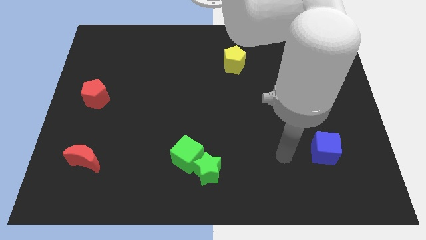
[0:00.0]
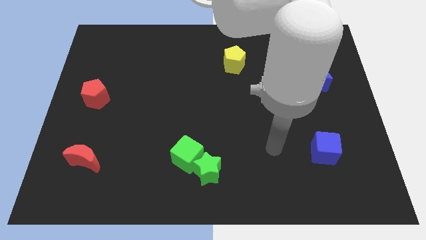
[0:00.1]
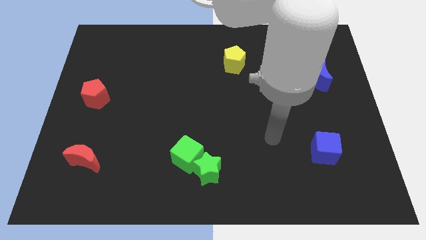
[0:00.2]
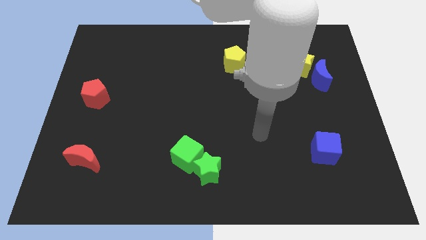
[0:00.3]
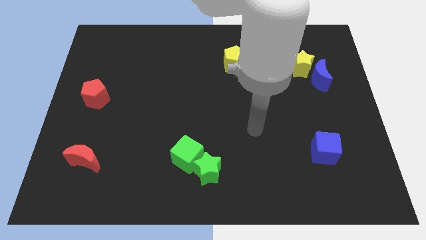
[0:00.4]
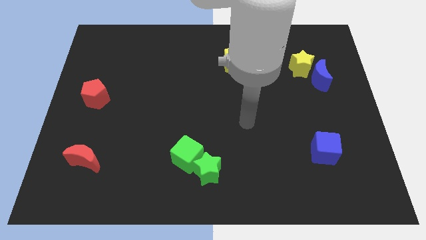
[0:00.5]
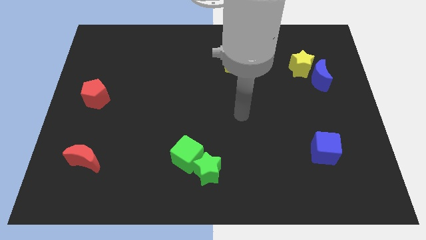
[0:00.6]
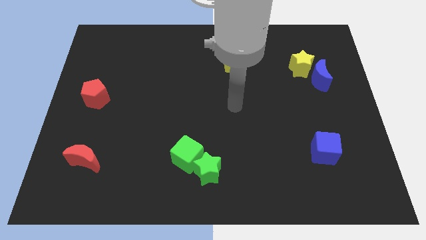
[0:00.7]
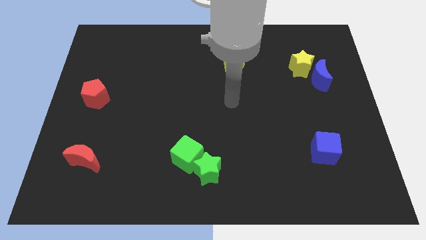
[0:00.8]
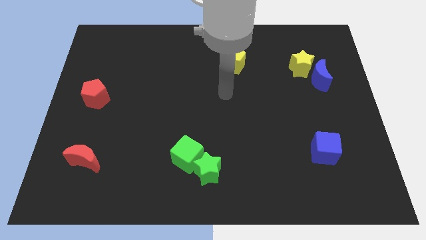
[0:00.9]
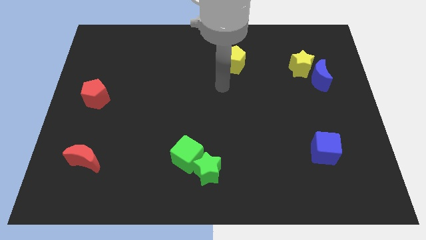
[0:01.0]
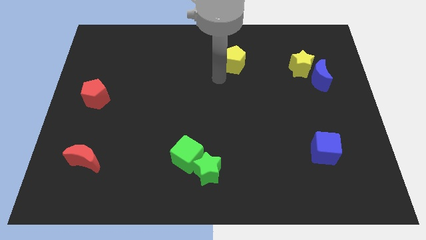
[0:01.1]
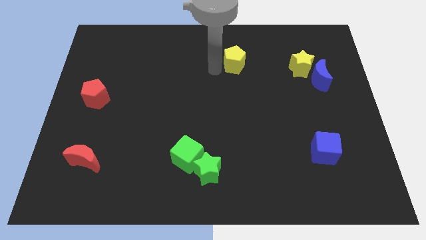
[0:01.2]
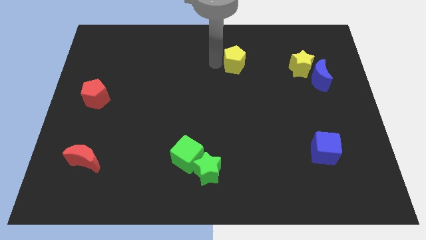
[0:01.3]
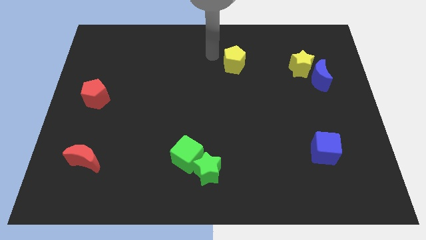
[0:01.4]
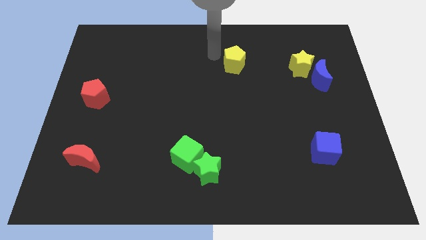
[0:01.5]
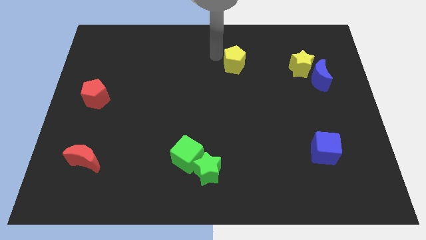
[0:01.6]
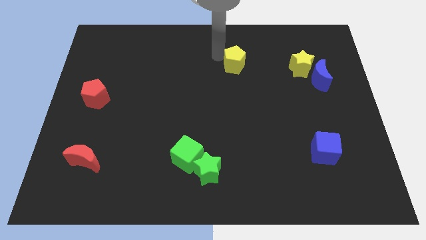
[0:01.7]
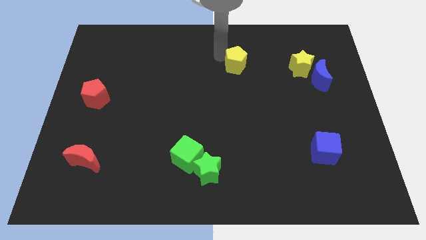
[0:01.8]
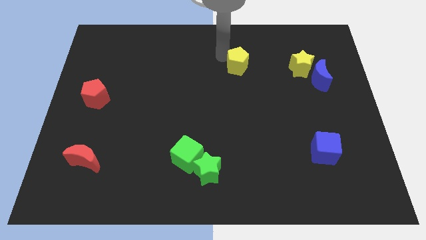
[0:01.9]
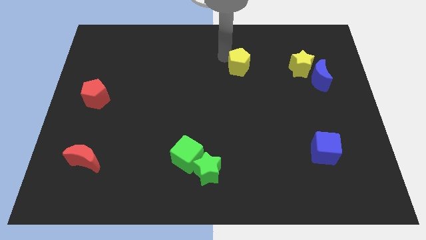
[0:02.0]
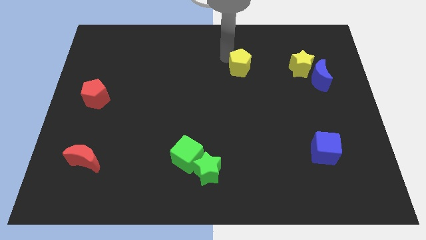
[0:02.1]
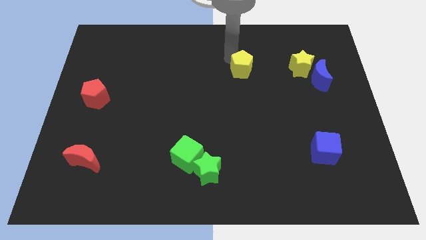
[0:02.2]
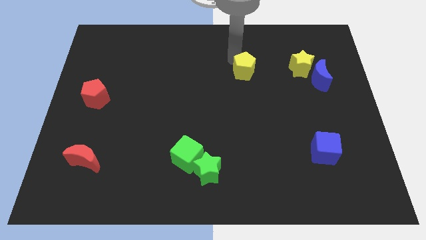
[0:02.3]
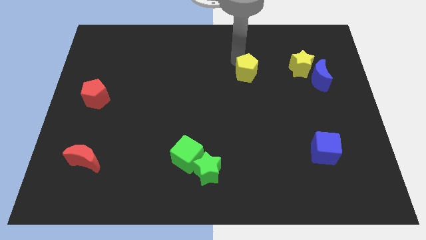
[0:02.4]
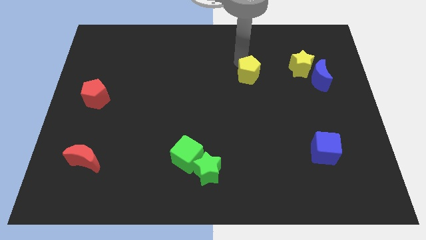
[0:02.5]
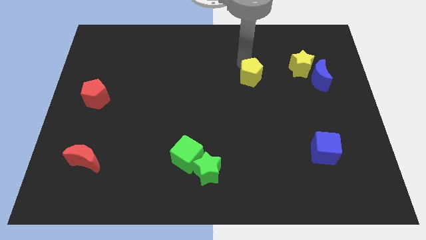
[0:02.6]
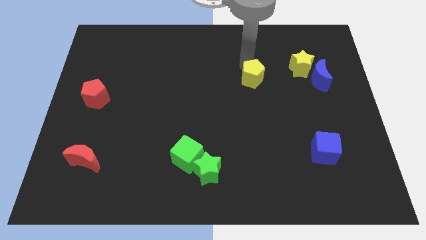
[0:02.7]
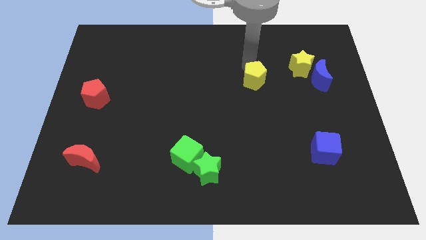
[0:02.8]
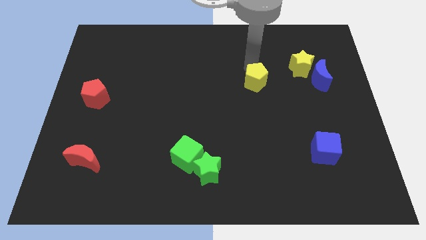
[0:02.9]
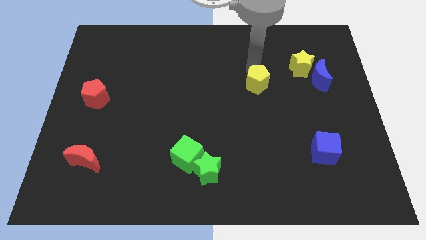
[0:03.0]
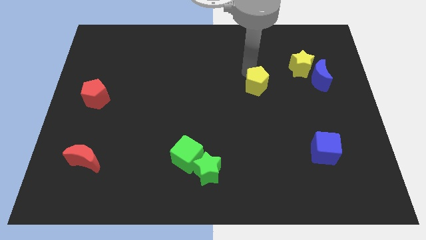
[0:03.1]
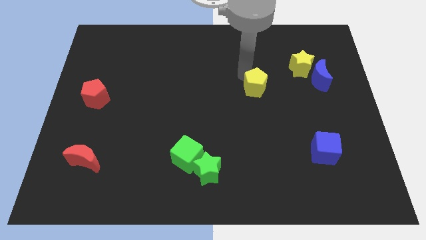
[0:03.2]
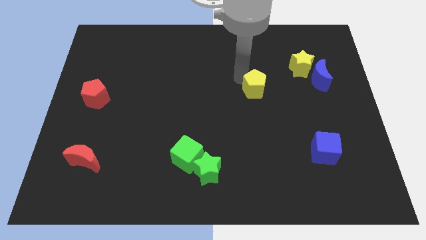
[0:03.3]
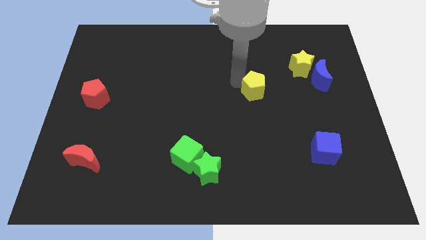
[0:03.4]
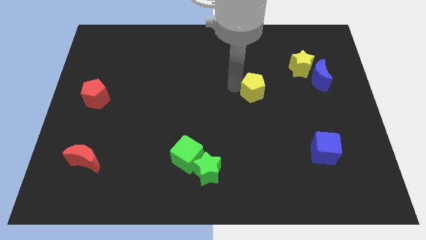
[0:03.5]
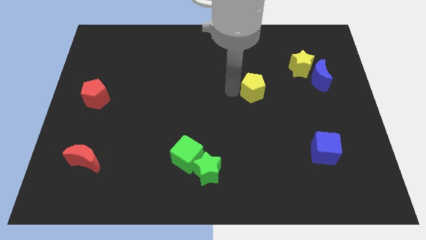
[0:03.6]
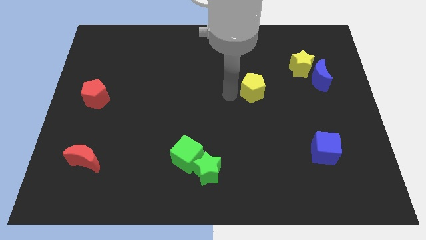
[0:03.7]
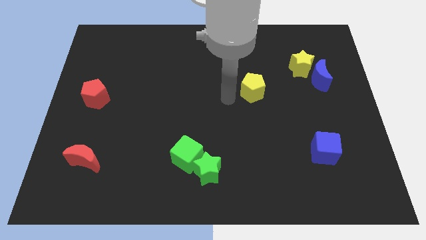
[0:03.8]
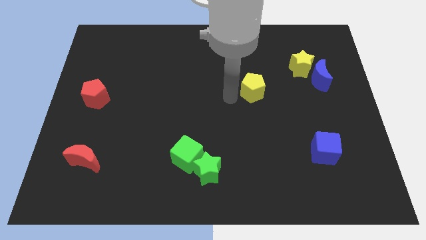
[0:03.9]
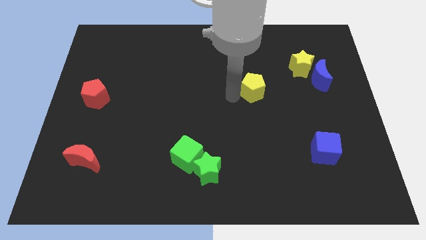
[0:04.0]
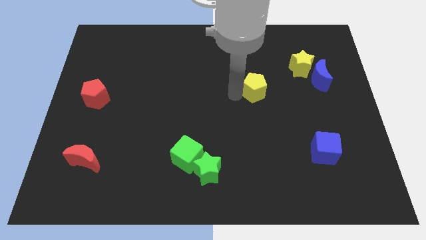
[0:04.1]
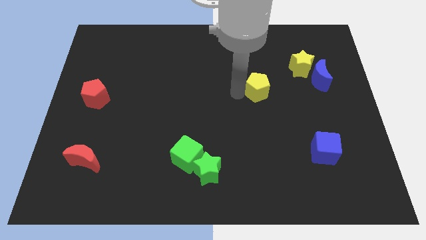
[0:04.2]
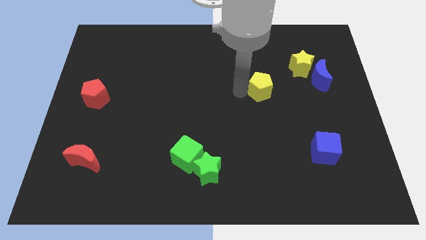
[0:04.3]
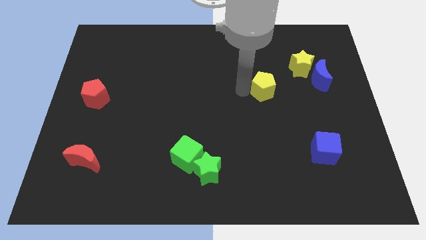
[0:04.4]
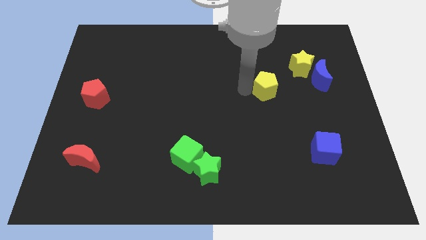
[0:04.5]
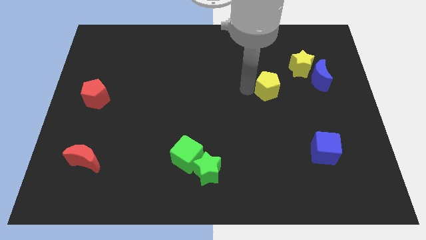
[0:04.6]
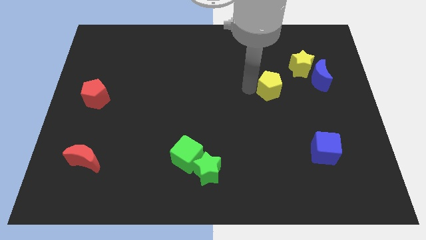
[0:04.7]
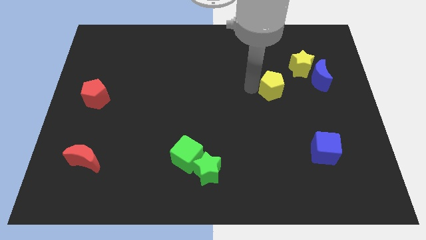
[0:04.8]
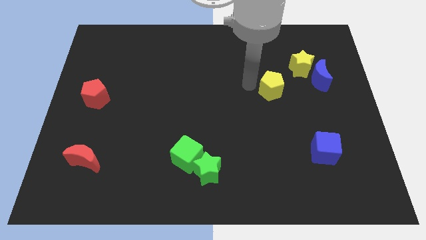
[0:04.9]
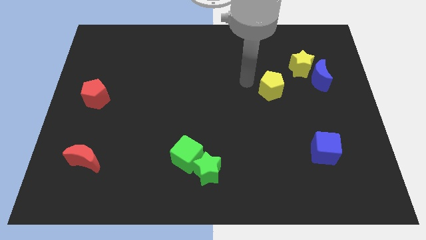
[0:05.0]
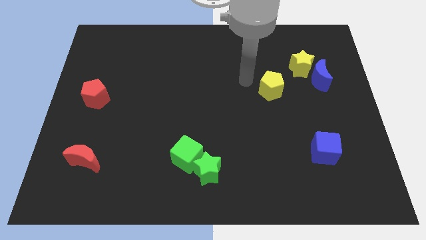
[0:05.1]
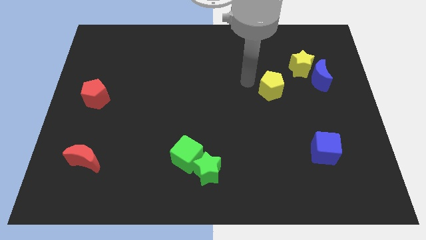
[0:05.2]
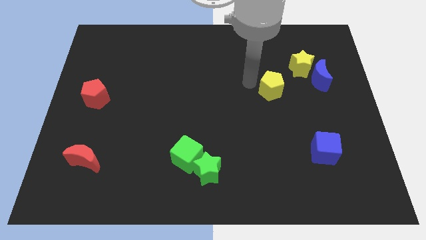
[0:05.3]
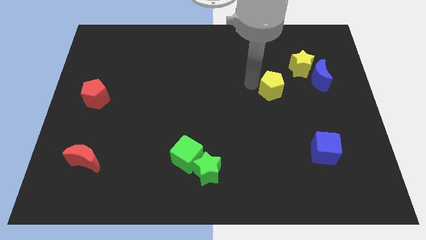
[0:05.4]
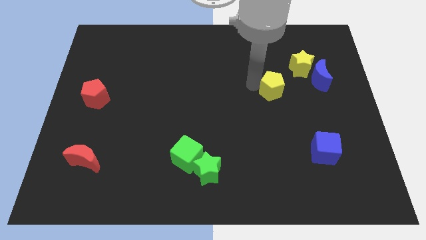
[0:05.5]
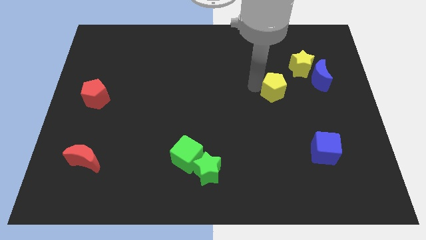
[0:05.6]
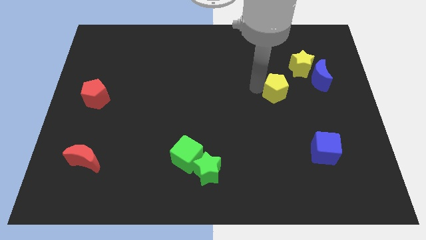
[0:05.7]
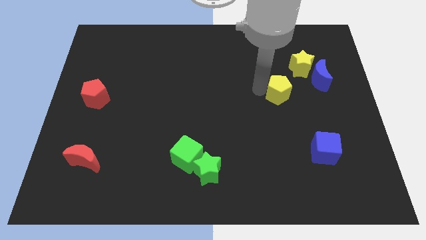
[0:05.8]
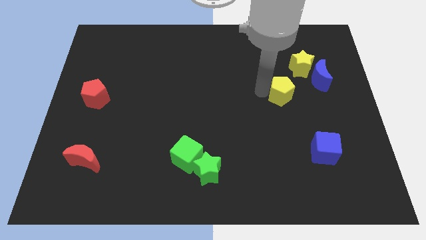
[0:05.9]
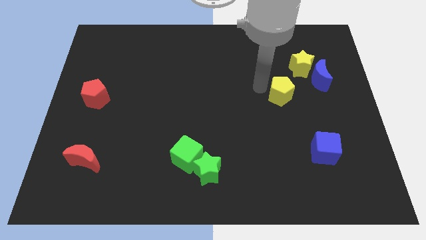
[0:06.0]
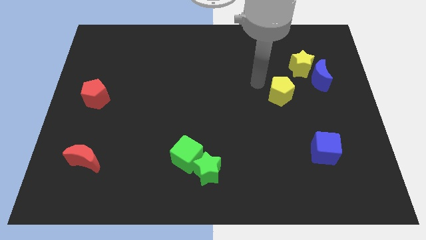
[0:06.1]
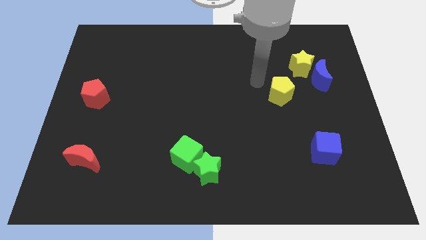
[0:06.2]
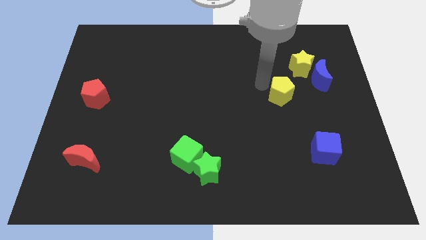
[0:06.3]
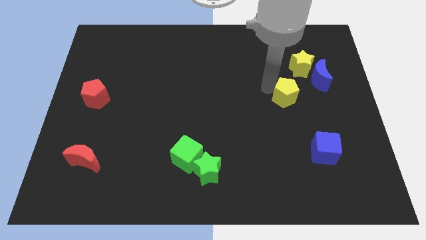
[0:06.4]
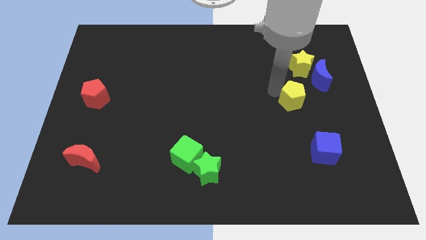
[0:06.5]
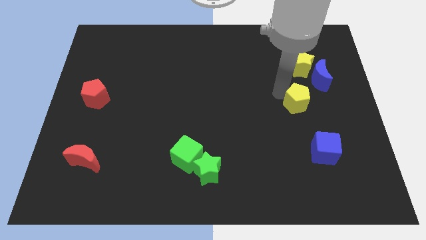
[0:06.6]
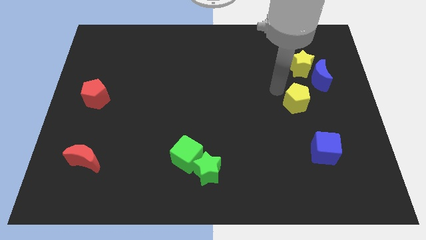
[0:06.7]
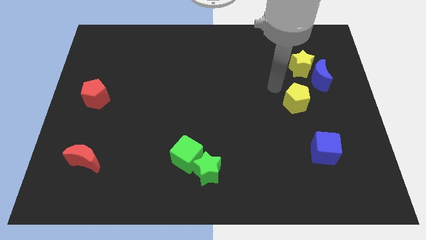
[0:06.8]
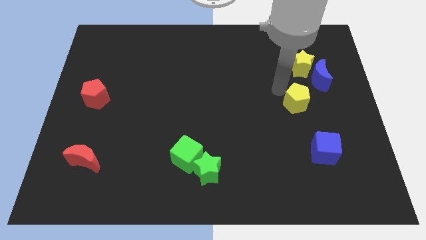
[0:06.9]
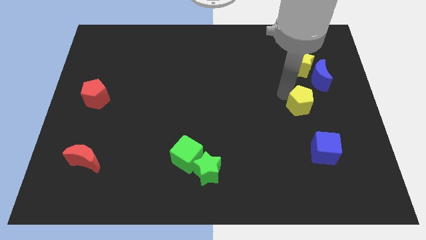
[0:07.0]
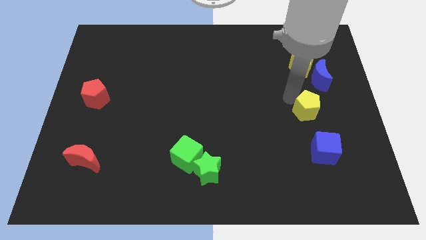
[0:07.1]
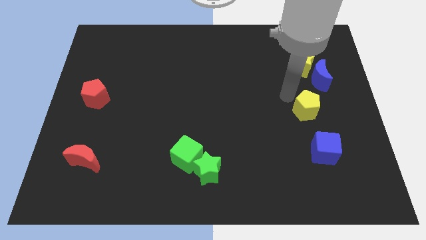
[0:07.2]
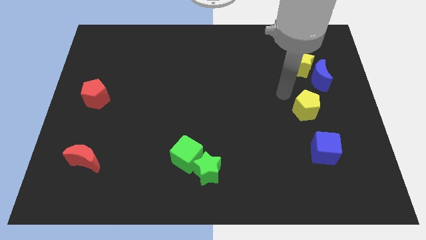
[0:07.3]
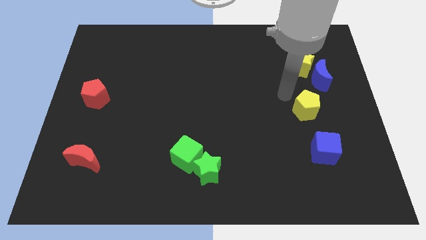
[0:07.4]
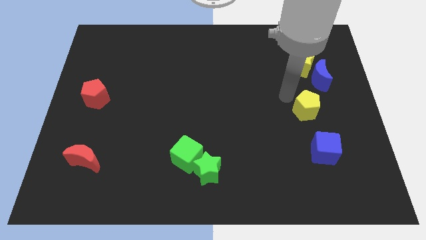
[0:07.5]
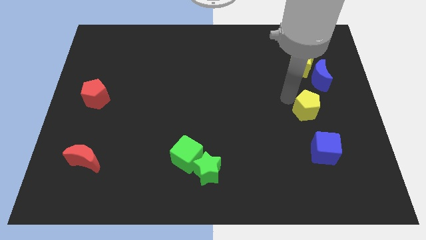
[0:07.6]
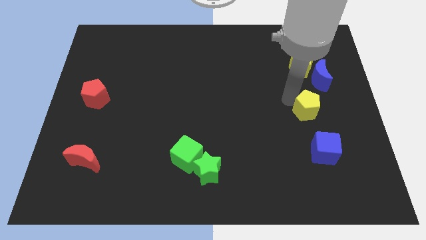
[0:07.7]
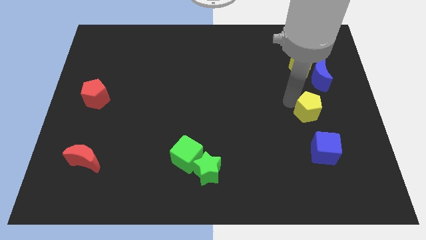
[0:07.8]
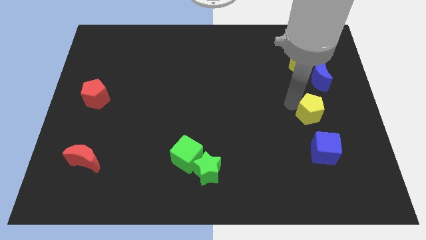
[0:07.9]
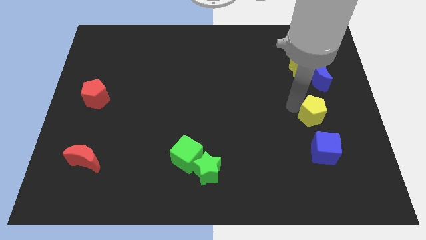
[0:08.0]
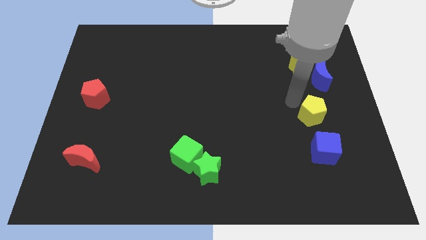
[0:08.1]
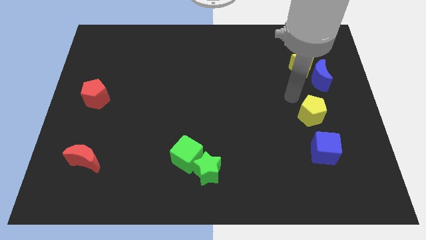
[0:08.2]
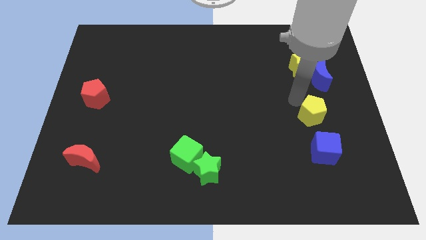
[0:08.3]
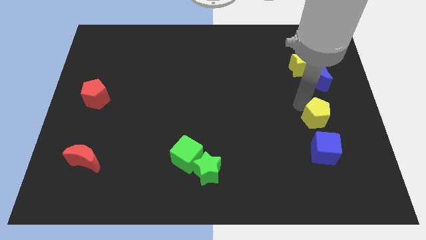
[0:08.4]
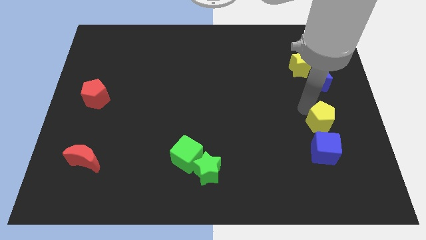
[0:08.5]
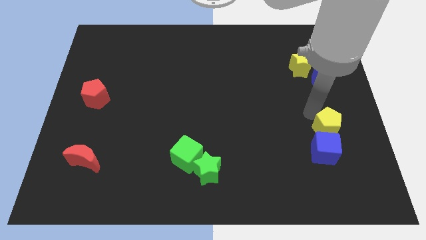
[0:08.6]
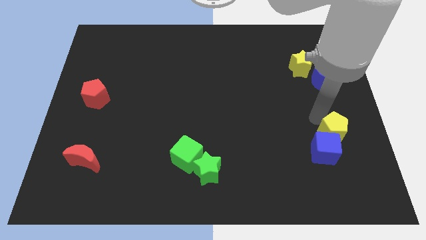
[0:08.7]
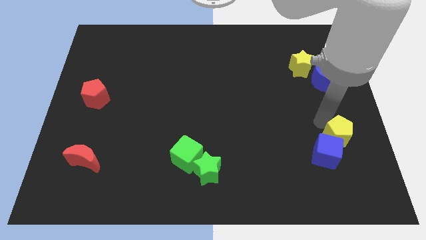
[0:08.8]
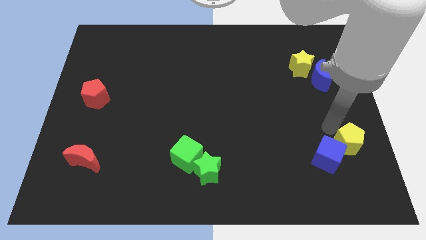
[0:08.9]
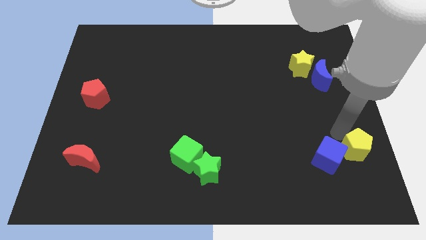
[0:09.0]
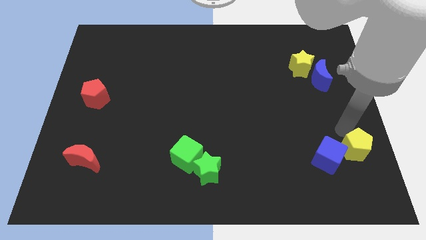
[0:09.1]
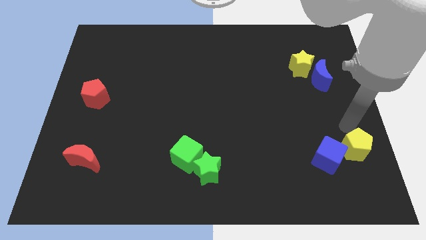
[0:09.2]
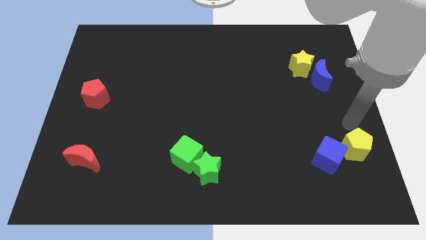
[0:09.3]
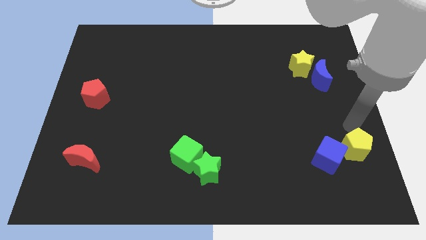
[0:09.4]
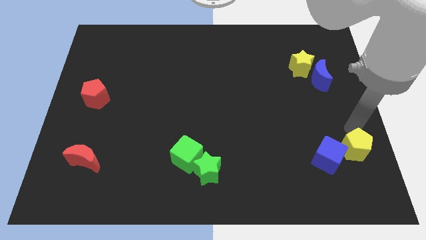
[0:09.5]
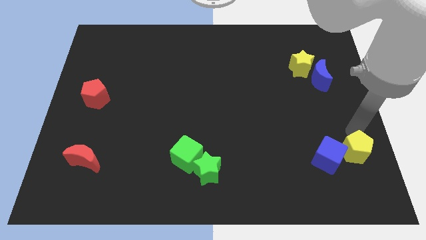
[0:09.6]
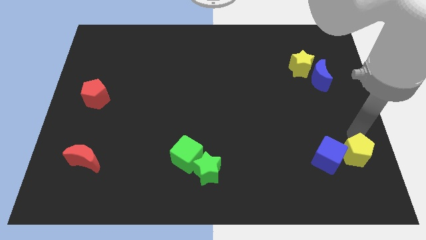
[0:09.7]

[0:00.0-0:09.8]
push the yellow pentagon diagonally down and to the right of the blue cube
